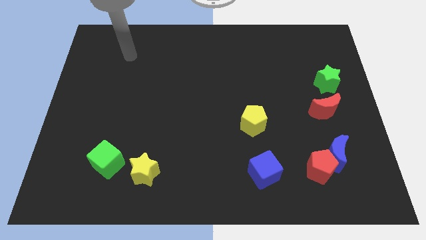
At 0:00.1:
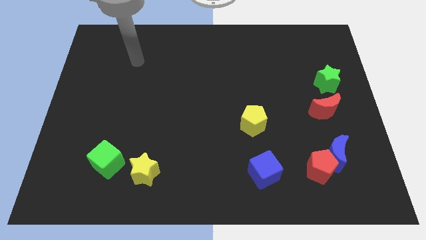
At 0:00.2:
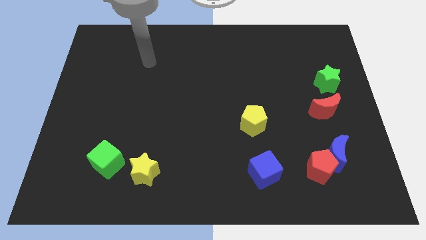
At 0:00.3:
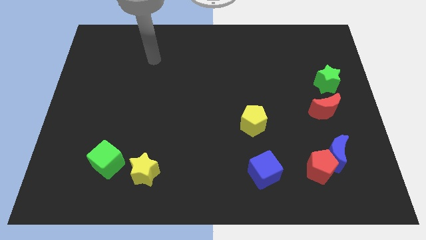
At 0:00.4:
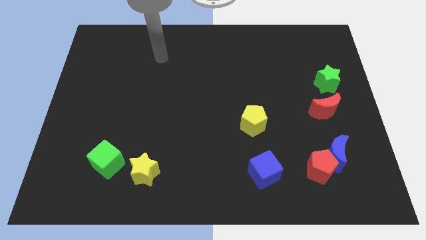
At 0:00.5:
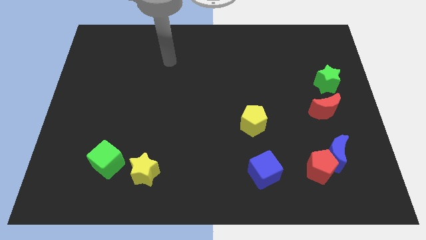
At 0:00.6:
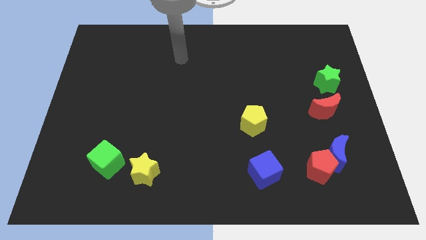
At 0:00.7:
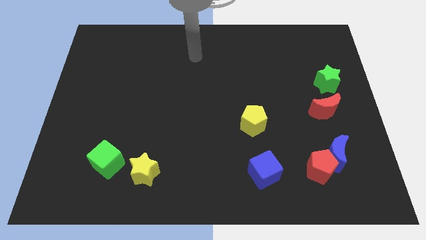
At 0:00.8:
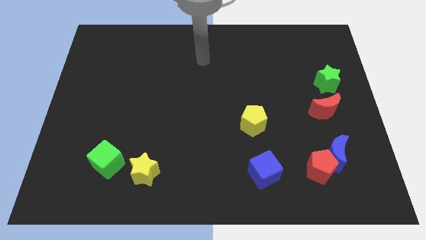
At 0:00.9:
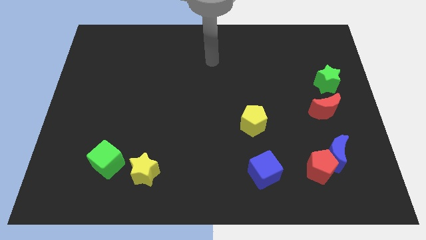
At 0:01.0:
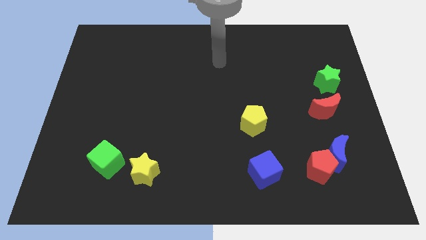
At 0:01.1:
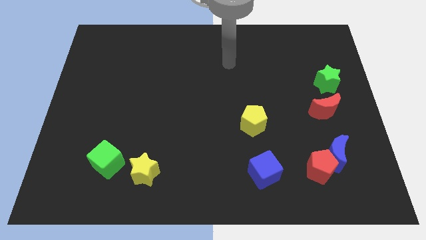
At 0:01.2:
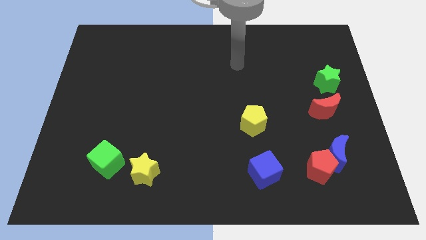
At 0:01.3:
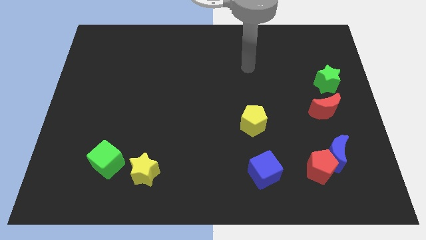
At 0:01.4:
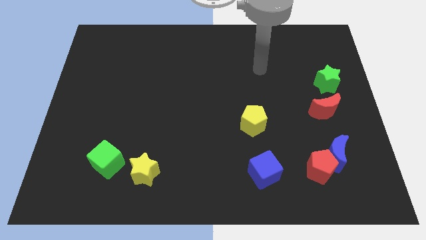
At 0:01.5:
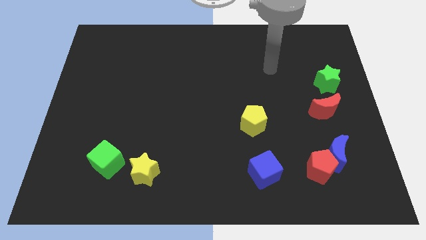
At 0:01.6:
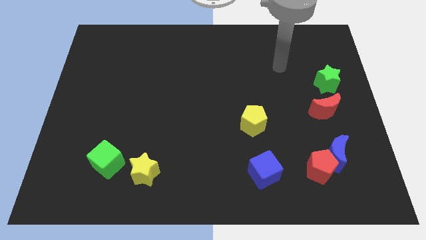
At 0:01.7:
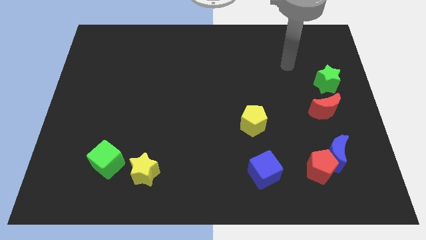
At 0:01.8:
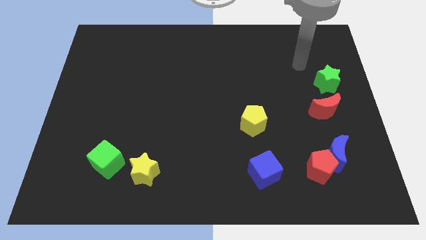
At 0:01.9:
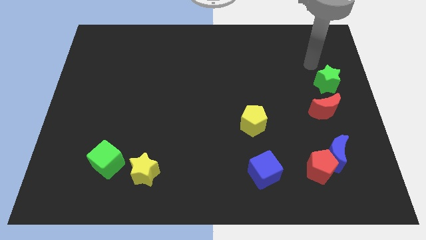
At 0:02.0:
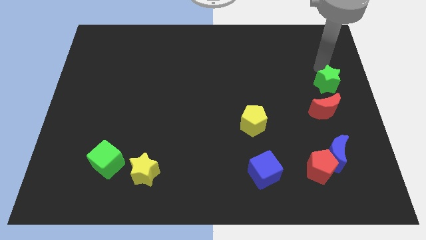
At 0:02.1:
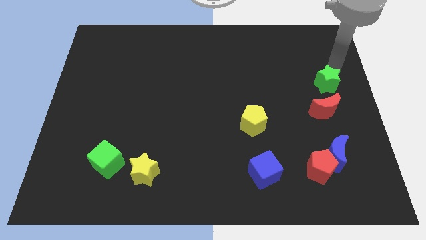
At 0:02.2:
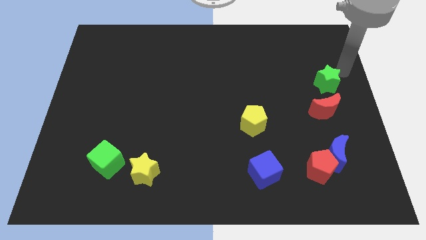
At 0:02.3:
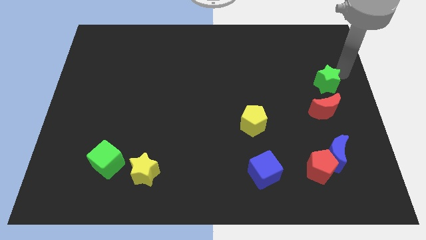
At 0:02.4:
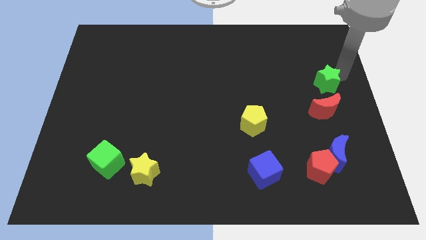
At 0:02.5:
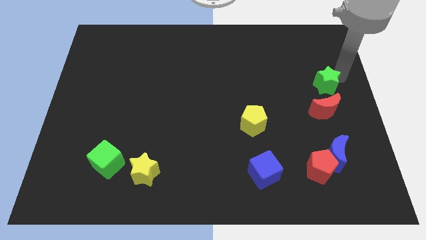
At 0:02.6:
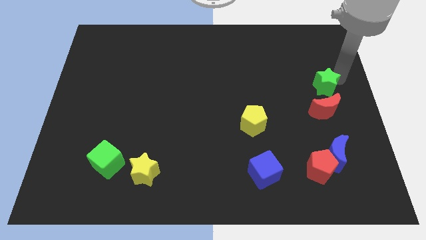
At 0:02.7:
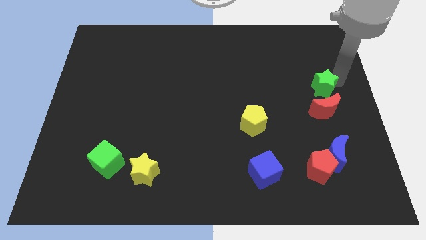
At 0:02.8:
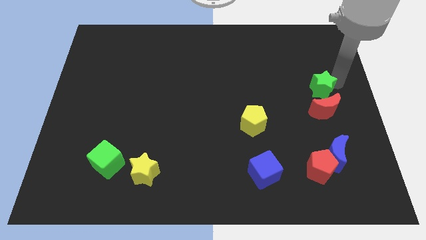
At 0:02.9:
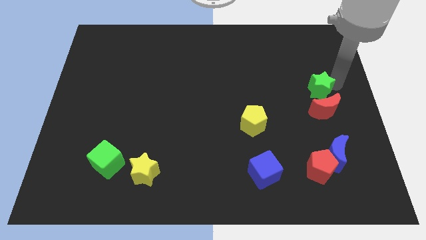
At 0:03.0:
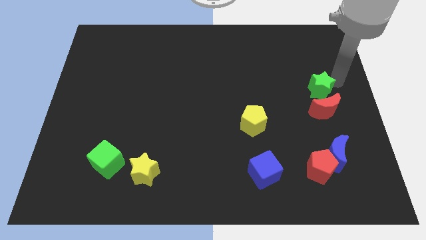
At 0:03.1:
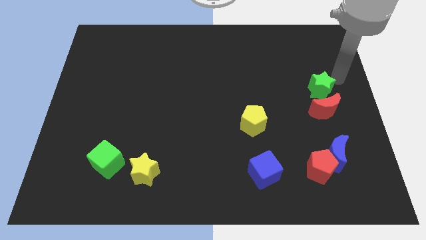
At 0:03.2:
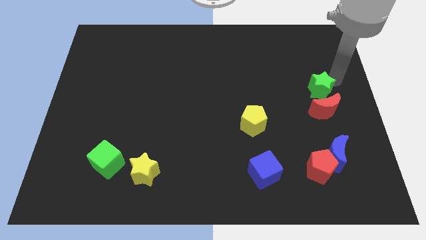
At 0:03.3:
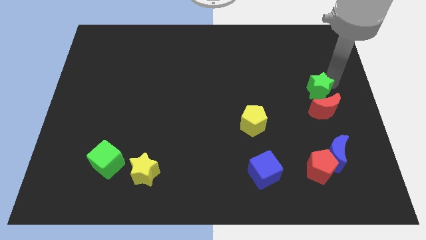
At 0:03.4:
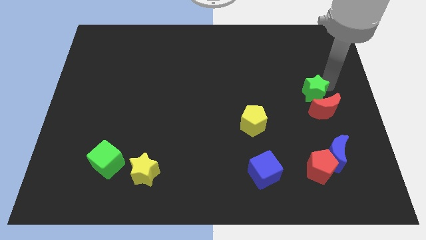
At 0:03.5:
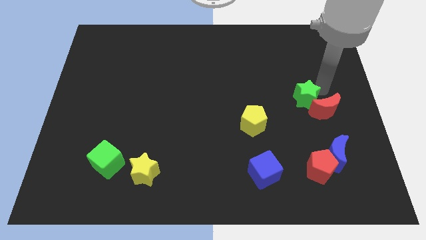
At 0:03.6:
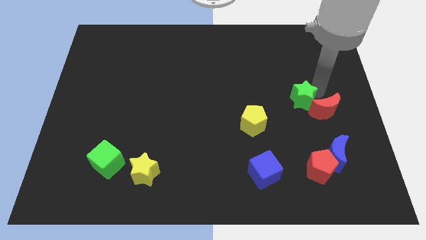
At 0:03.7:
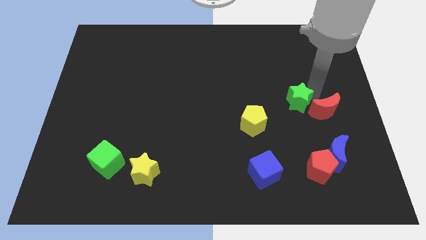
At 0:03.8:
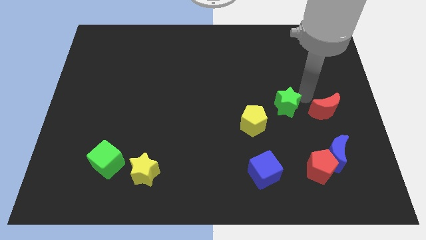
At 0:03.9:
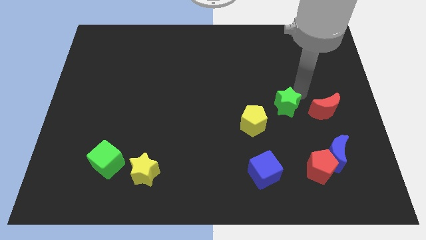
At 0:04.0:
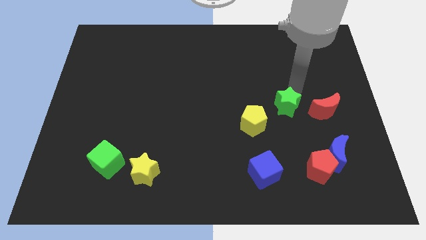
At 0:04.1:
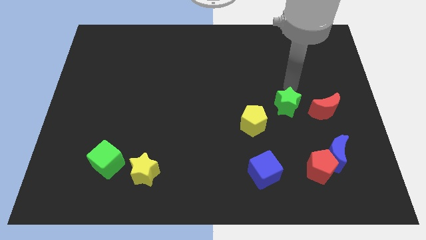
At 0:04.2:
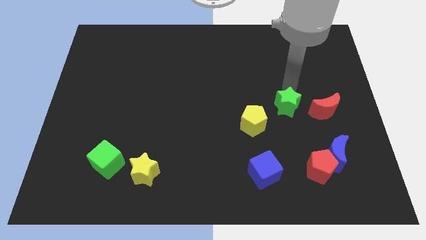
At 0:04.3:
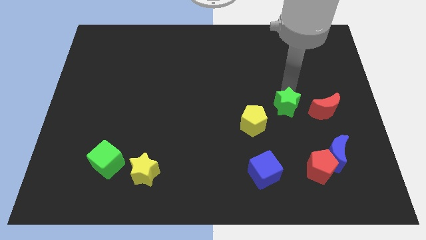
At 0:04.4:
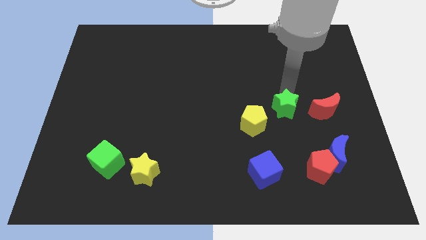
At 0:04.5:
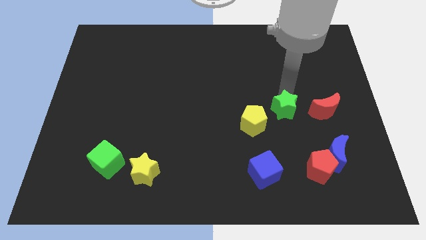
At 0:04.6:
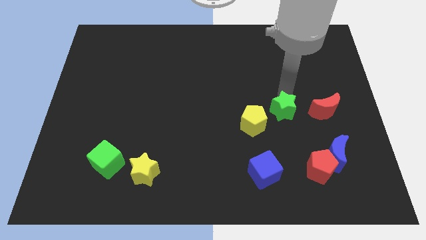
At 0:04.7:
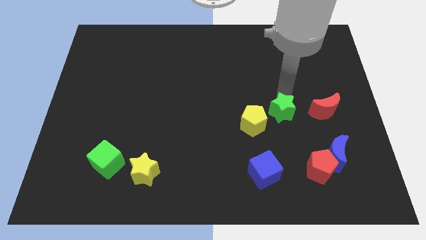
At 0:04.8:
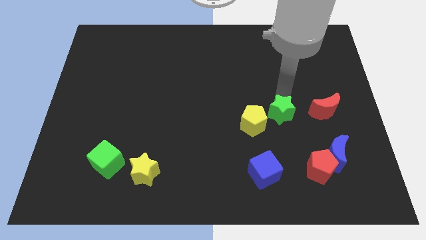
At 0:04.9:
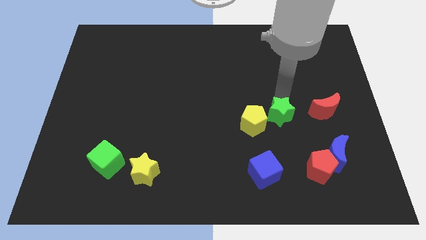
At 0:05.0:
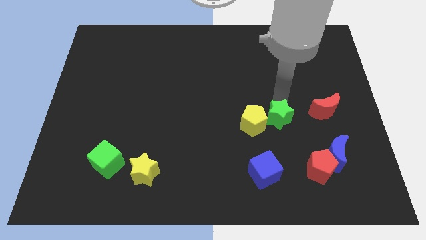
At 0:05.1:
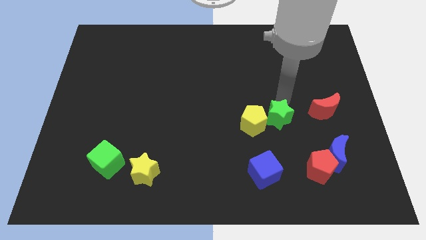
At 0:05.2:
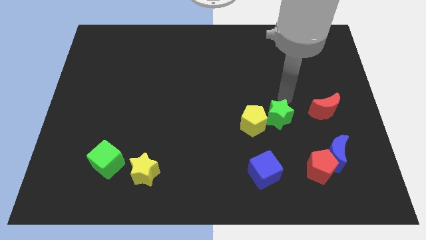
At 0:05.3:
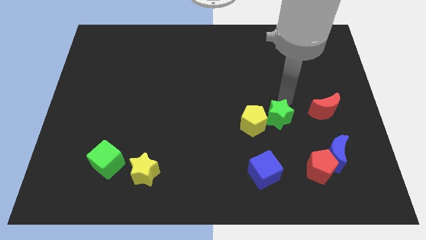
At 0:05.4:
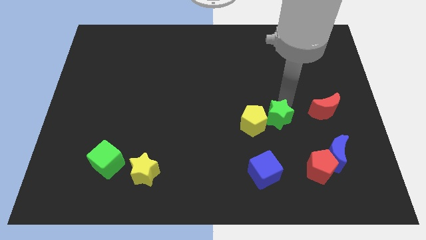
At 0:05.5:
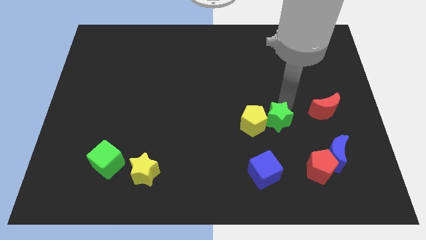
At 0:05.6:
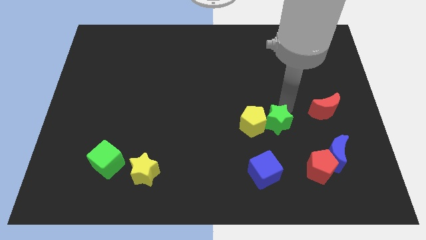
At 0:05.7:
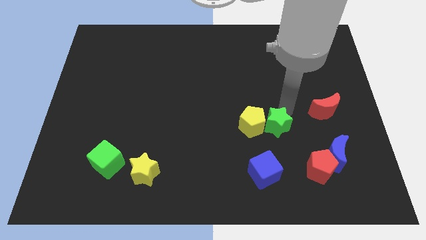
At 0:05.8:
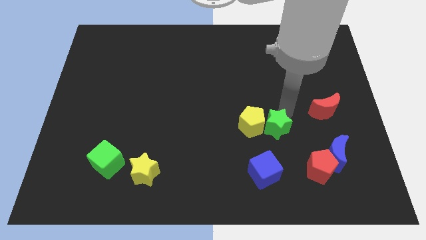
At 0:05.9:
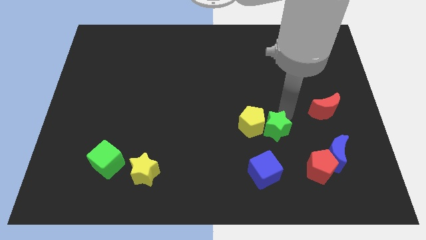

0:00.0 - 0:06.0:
slide the green star downwards and left

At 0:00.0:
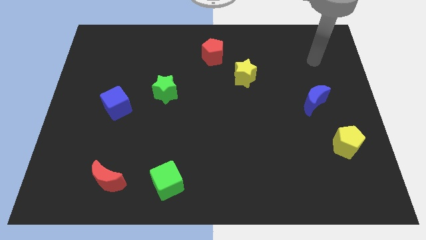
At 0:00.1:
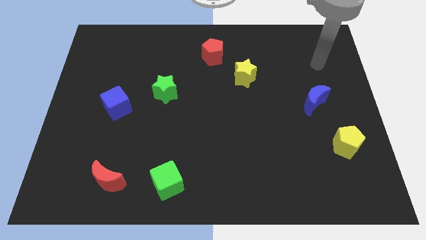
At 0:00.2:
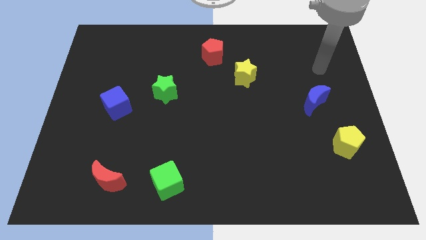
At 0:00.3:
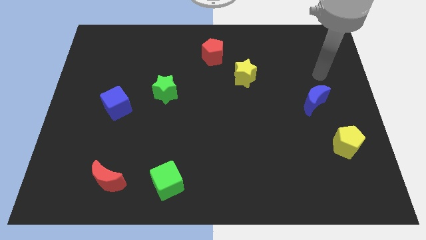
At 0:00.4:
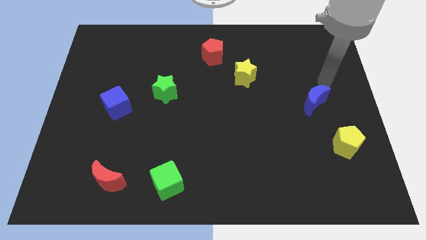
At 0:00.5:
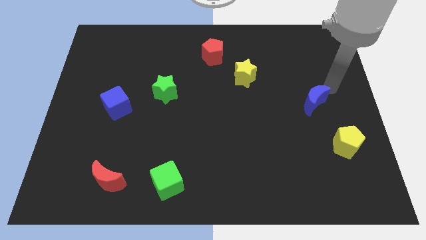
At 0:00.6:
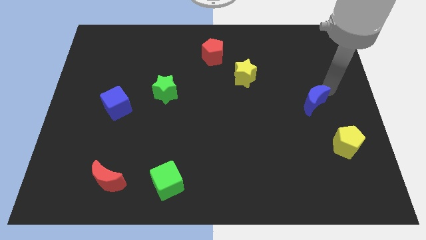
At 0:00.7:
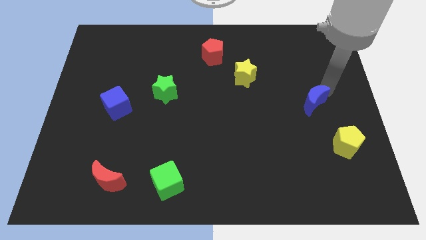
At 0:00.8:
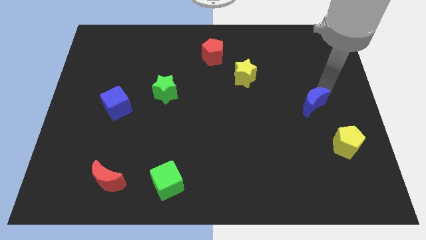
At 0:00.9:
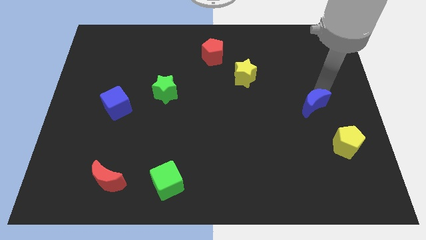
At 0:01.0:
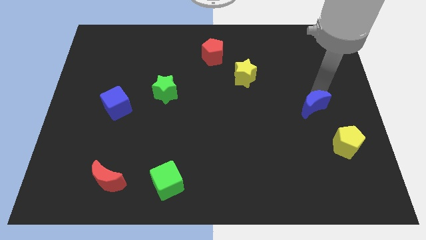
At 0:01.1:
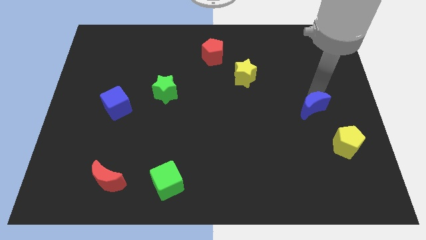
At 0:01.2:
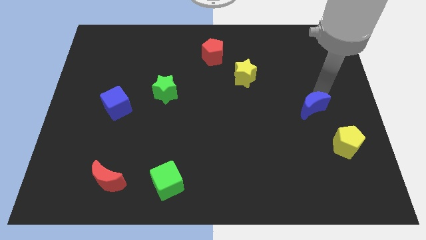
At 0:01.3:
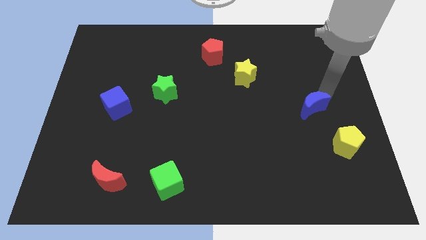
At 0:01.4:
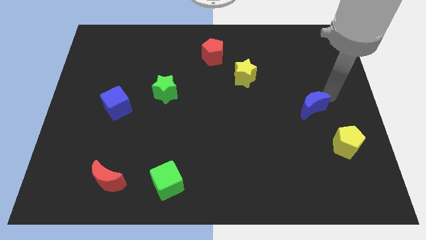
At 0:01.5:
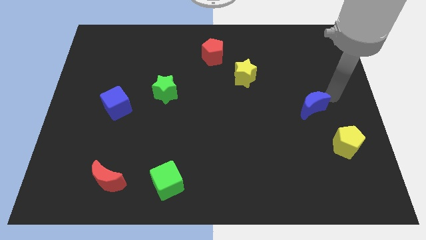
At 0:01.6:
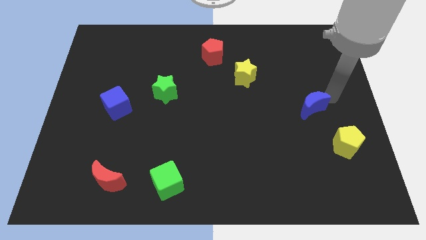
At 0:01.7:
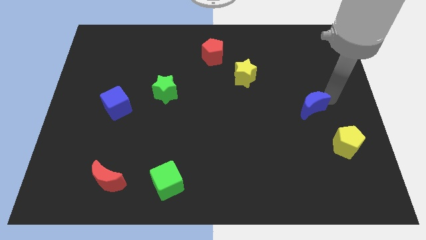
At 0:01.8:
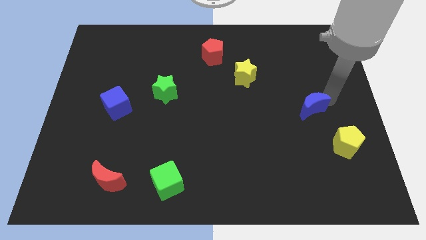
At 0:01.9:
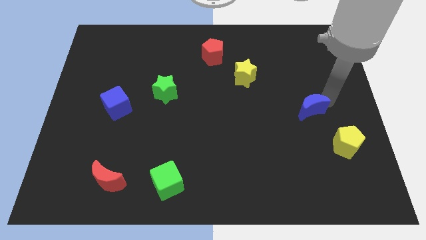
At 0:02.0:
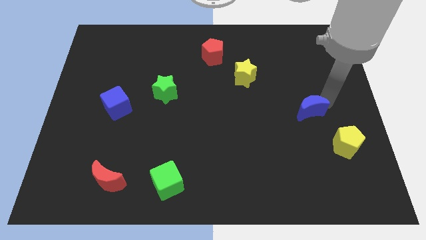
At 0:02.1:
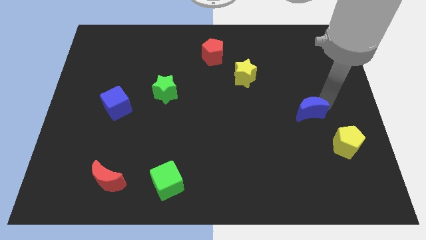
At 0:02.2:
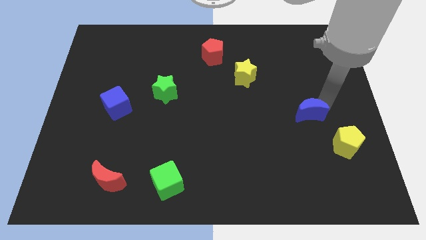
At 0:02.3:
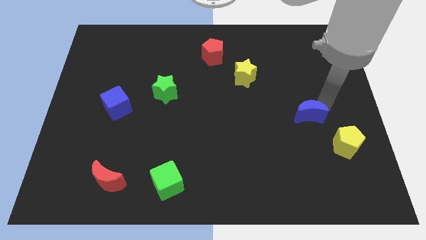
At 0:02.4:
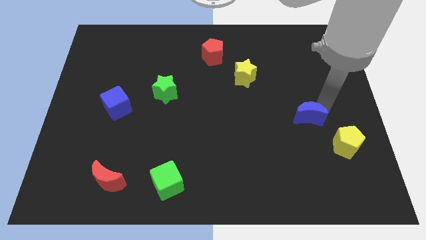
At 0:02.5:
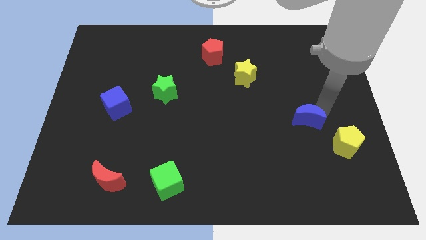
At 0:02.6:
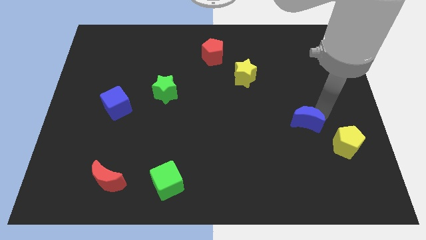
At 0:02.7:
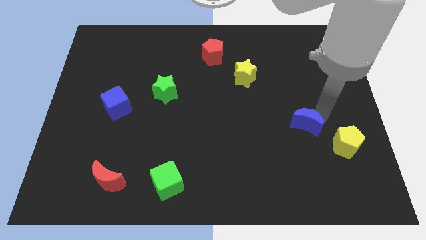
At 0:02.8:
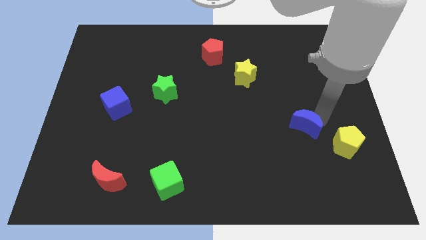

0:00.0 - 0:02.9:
slide the blue moon a little bit diagonally down and left
